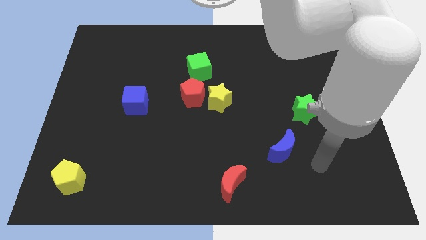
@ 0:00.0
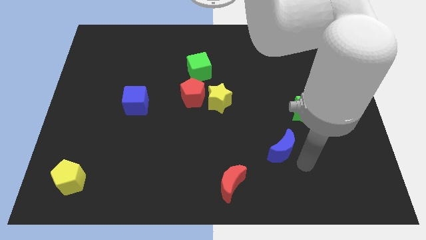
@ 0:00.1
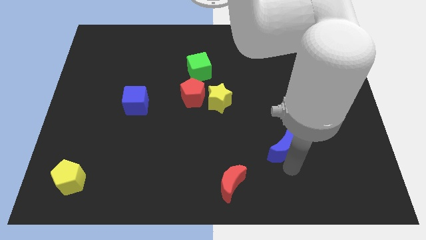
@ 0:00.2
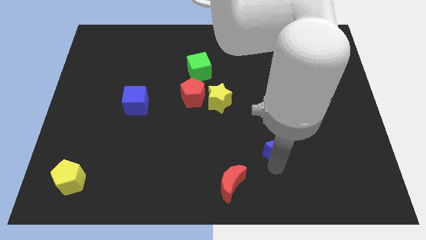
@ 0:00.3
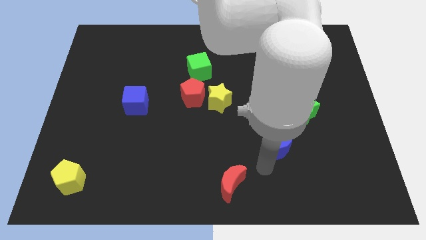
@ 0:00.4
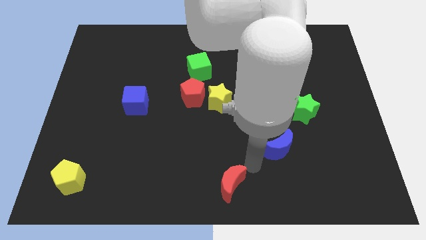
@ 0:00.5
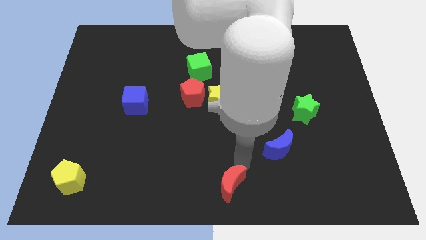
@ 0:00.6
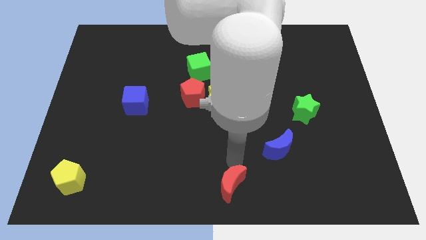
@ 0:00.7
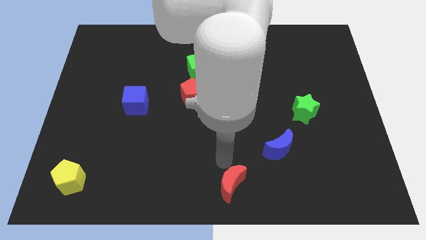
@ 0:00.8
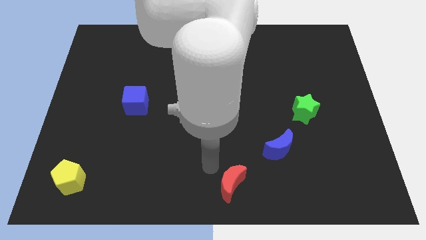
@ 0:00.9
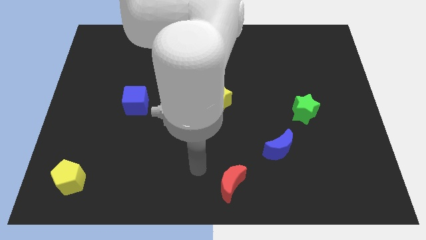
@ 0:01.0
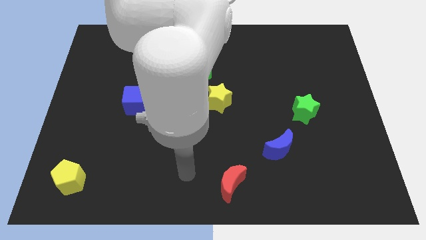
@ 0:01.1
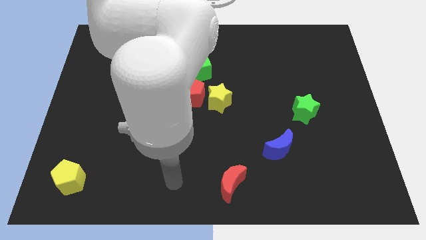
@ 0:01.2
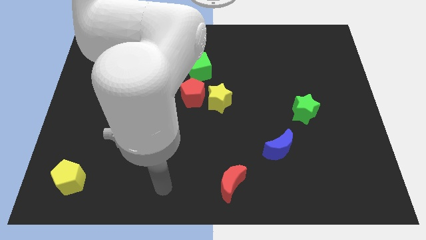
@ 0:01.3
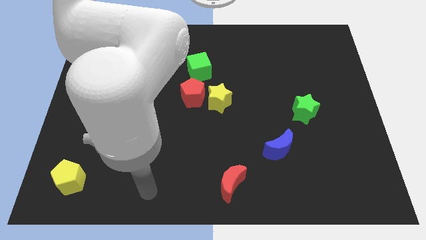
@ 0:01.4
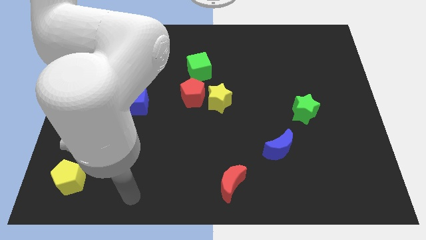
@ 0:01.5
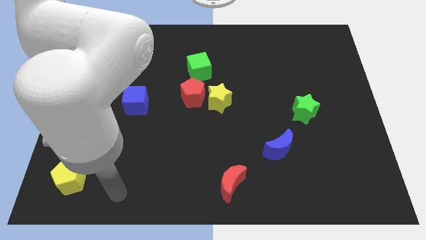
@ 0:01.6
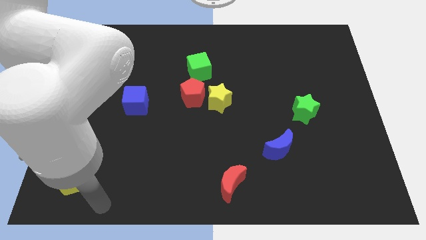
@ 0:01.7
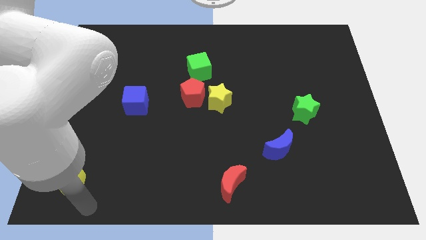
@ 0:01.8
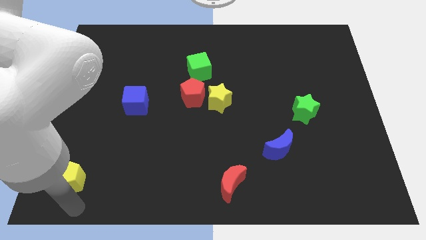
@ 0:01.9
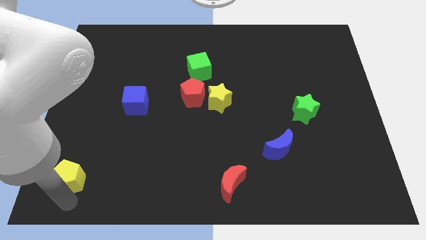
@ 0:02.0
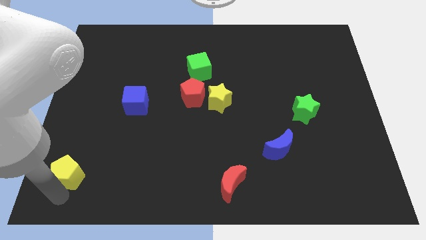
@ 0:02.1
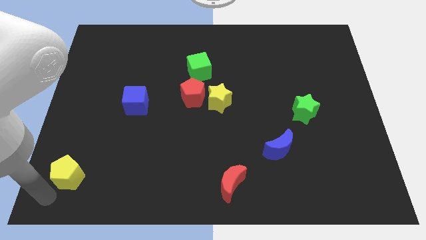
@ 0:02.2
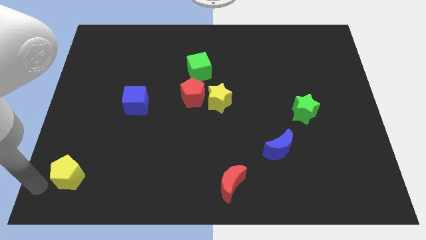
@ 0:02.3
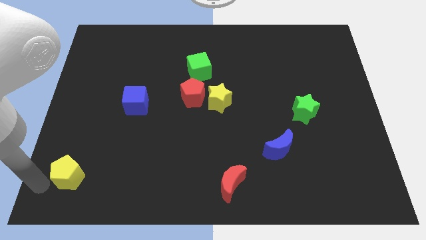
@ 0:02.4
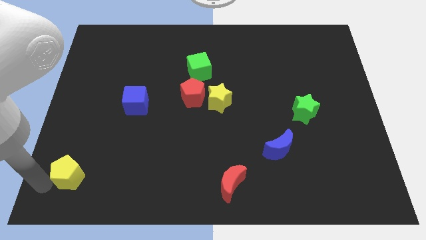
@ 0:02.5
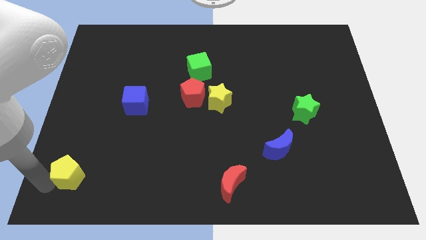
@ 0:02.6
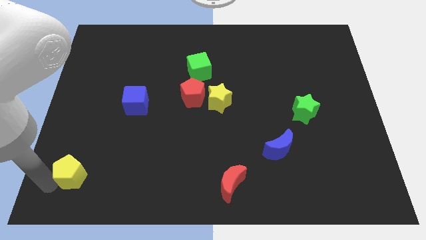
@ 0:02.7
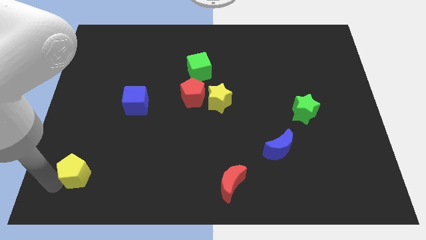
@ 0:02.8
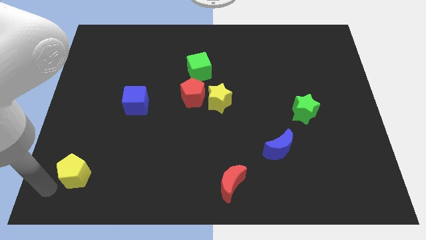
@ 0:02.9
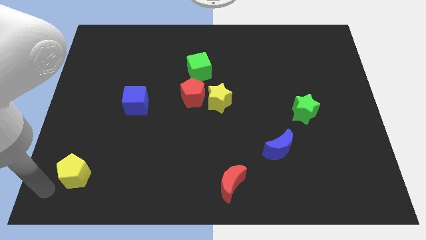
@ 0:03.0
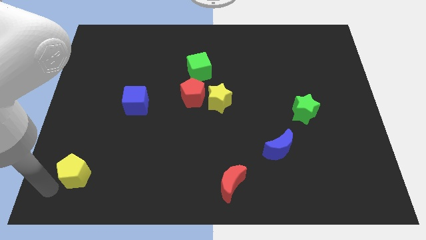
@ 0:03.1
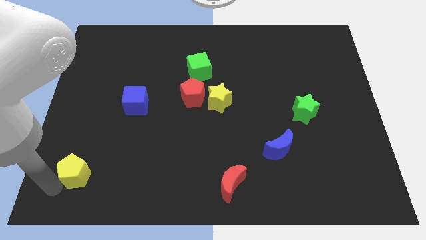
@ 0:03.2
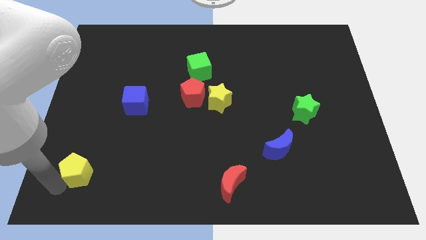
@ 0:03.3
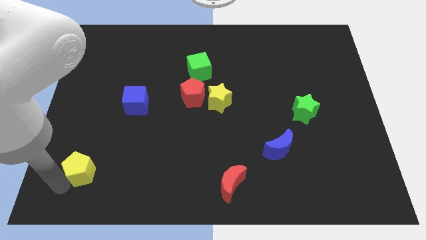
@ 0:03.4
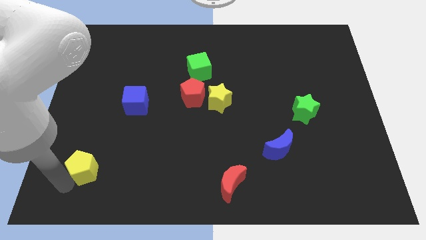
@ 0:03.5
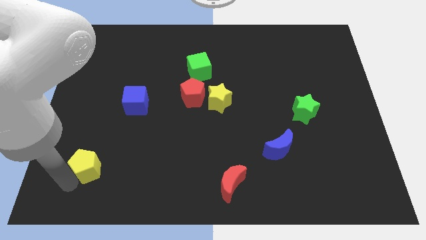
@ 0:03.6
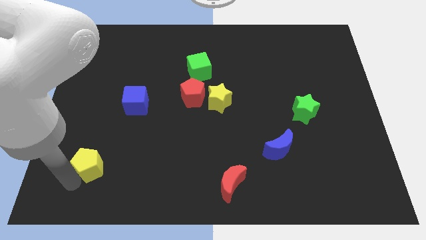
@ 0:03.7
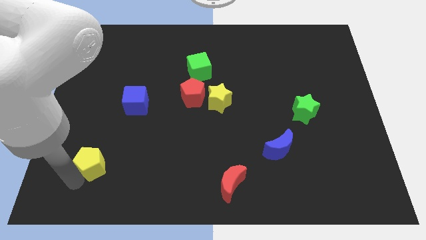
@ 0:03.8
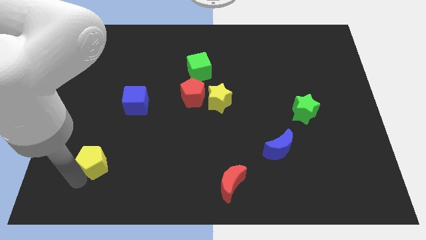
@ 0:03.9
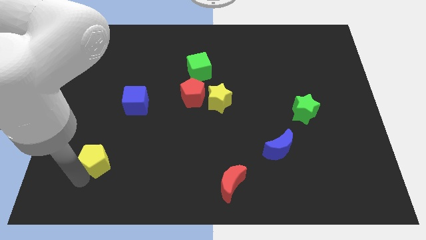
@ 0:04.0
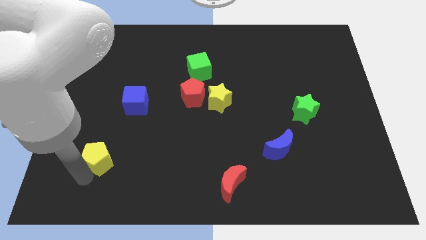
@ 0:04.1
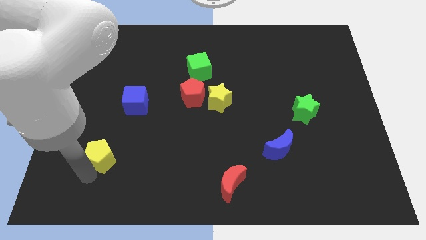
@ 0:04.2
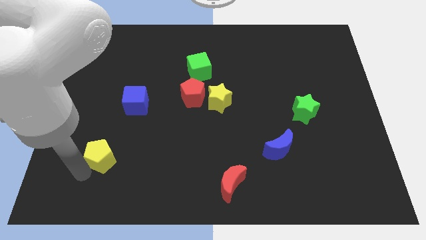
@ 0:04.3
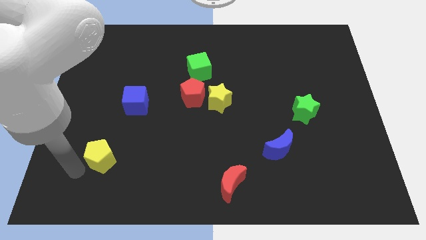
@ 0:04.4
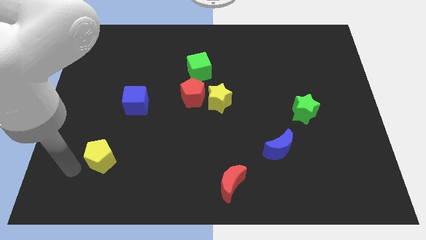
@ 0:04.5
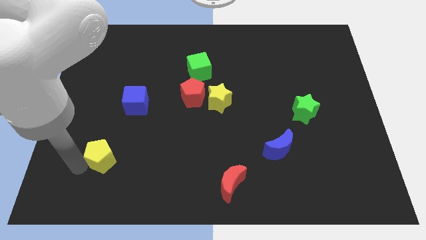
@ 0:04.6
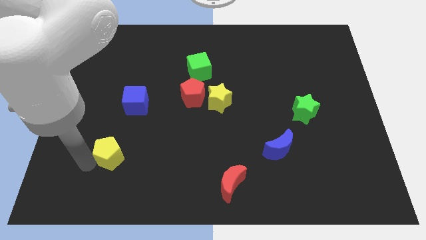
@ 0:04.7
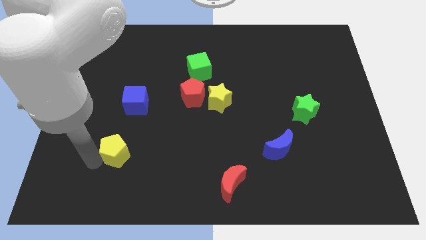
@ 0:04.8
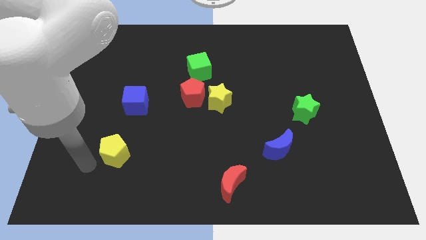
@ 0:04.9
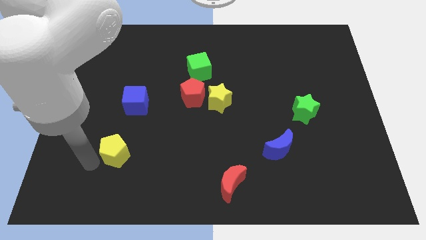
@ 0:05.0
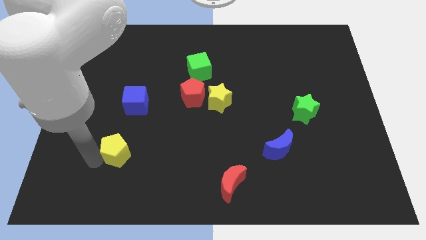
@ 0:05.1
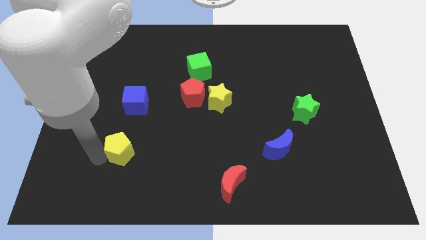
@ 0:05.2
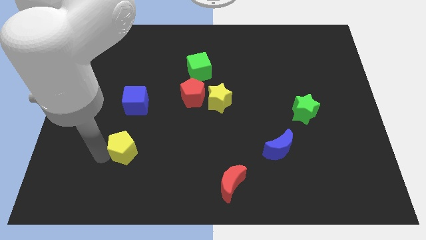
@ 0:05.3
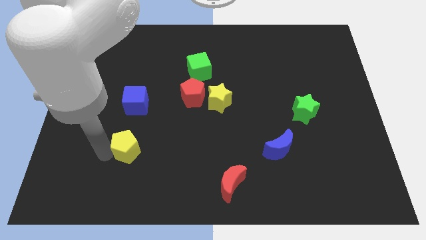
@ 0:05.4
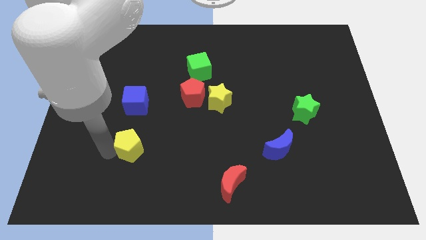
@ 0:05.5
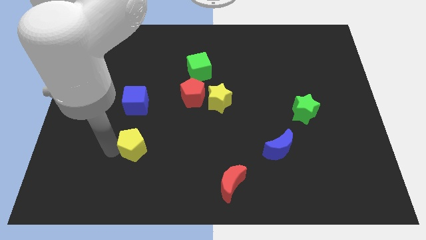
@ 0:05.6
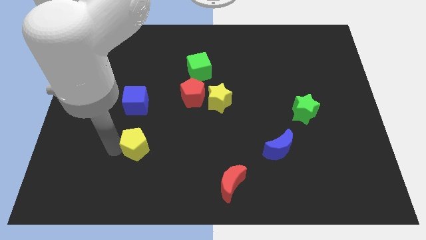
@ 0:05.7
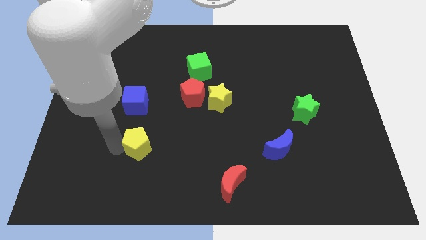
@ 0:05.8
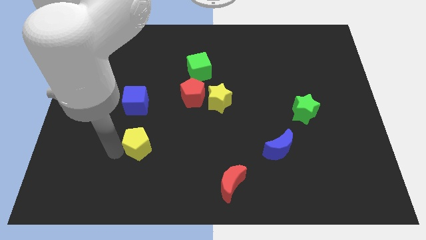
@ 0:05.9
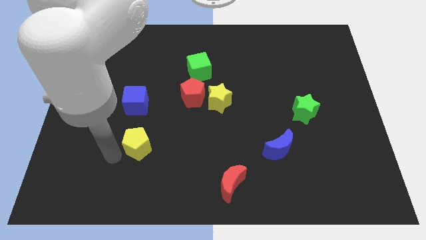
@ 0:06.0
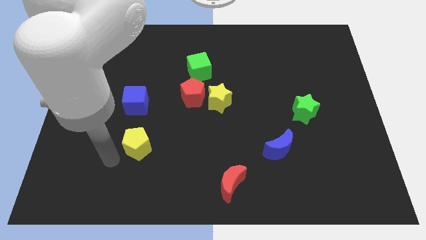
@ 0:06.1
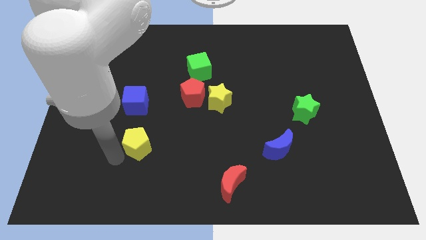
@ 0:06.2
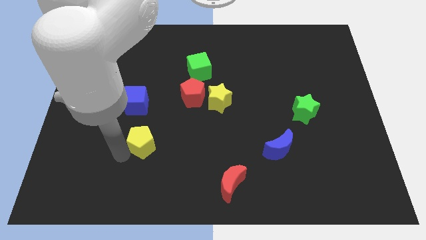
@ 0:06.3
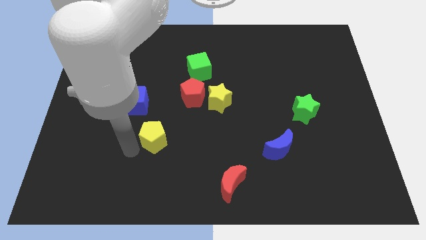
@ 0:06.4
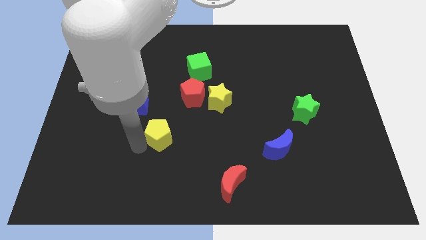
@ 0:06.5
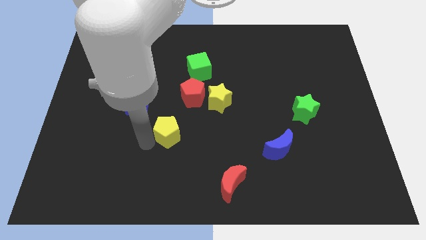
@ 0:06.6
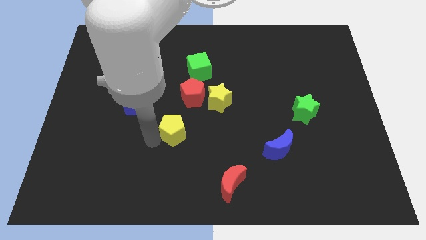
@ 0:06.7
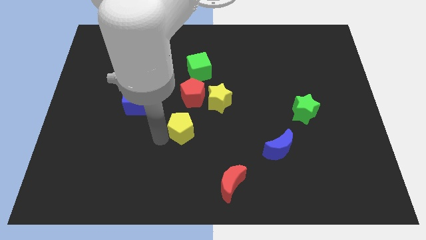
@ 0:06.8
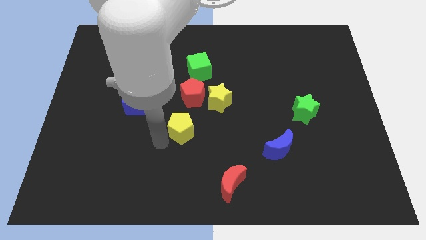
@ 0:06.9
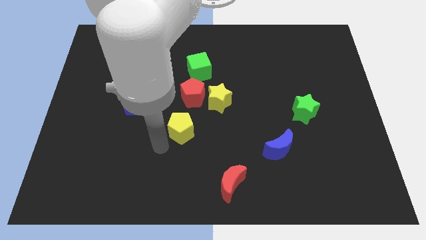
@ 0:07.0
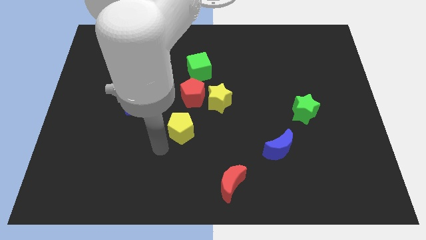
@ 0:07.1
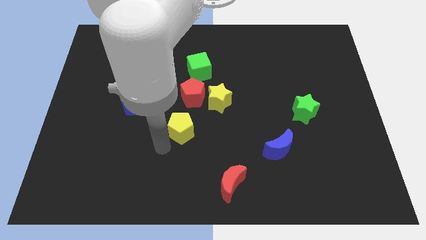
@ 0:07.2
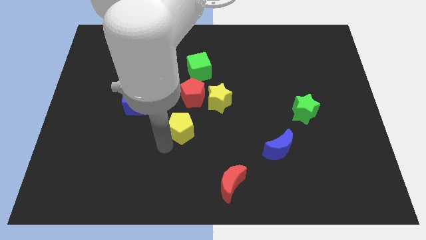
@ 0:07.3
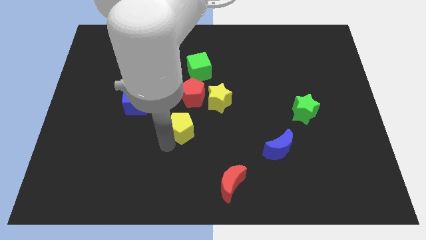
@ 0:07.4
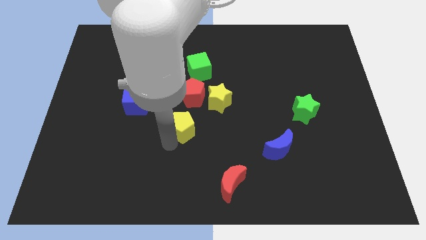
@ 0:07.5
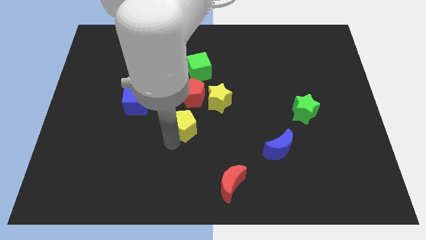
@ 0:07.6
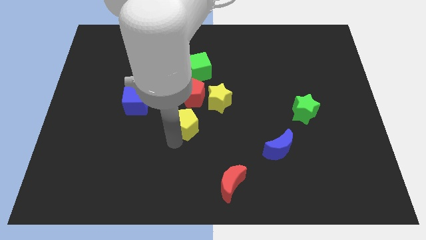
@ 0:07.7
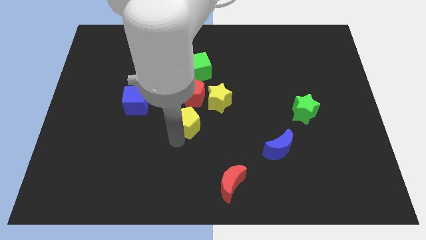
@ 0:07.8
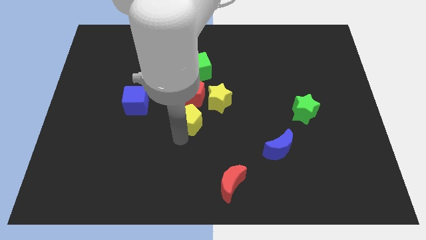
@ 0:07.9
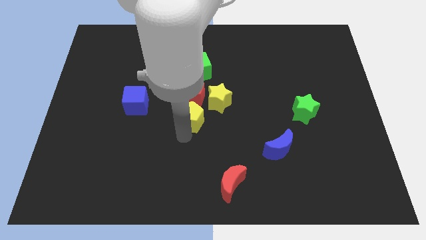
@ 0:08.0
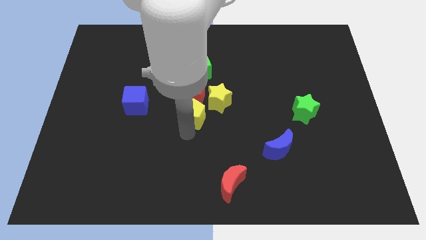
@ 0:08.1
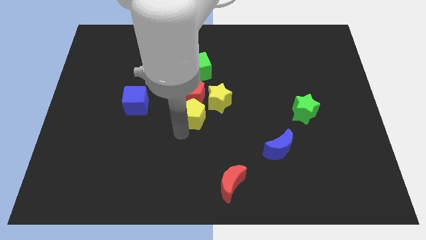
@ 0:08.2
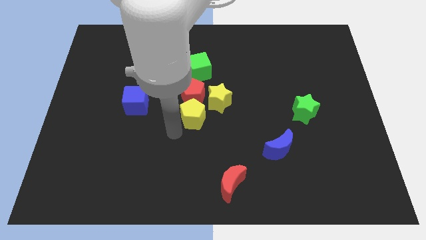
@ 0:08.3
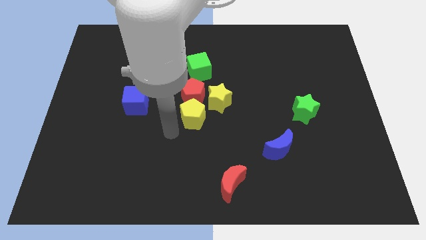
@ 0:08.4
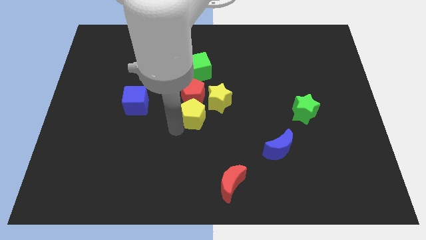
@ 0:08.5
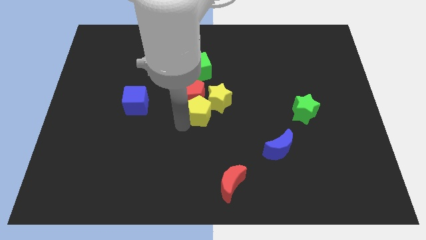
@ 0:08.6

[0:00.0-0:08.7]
push the yellow pentagon towards the yellow star
